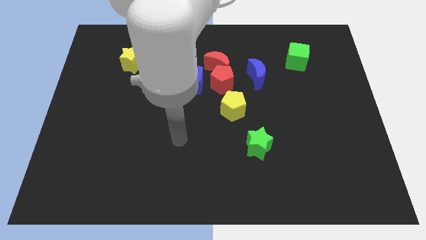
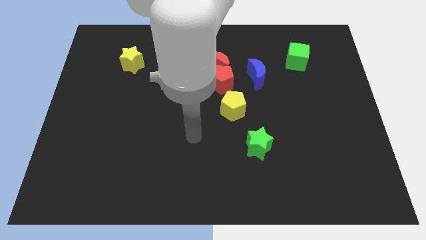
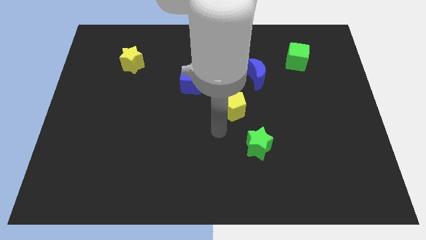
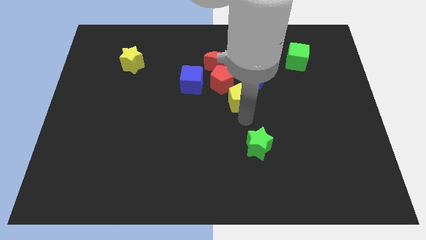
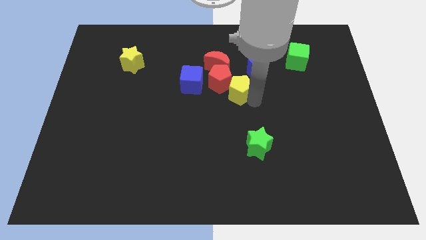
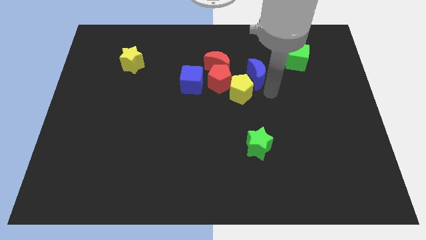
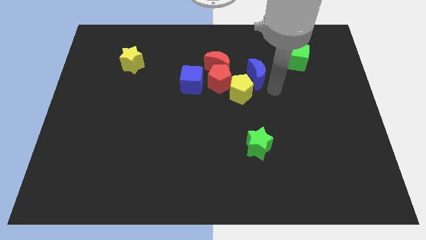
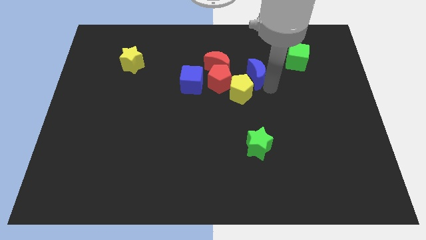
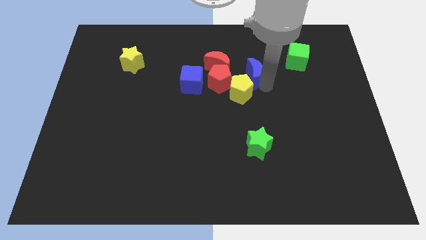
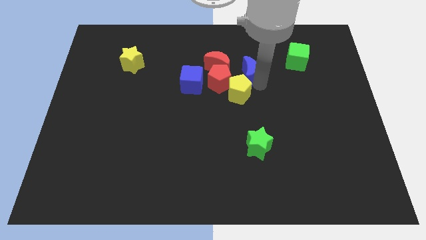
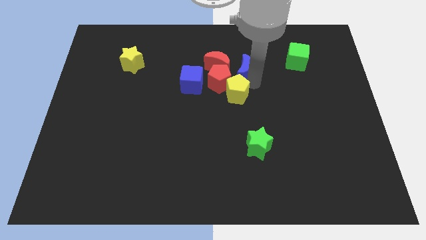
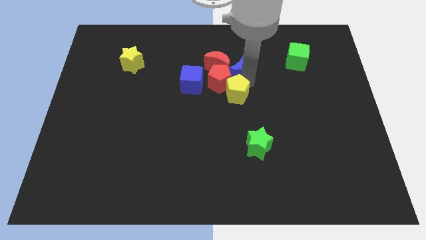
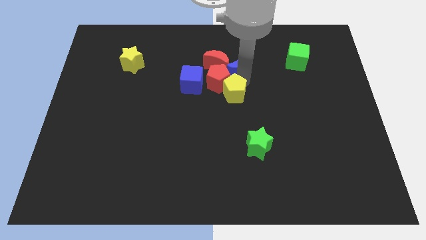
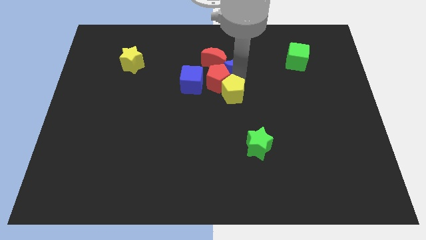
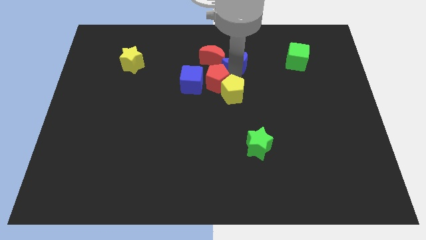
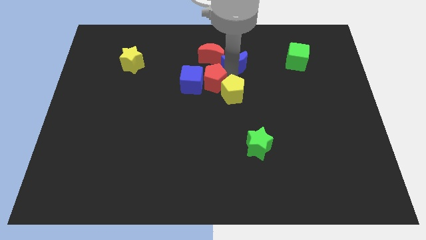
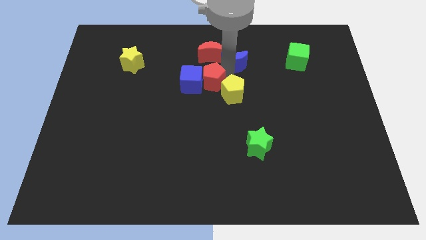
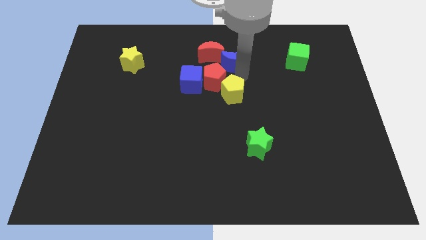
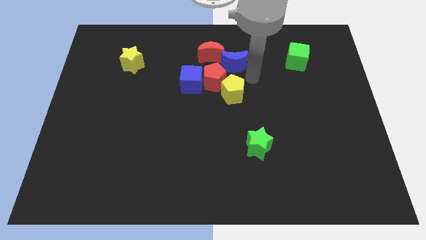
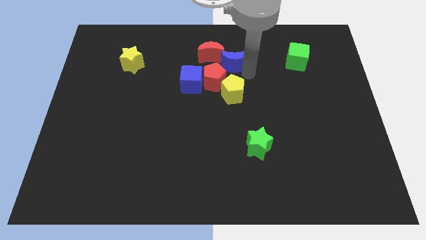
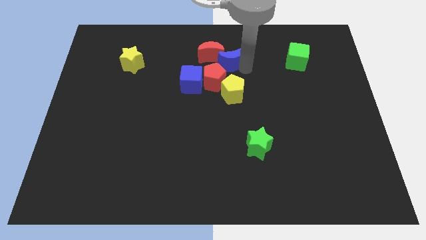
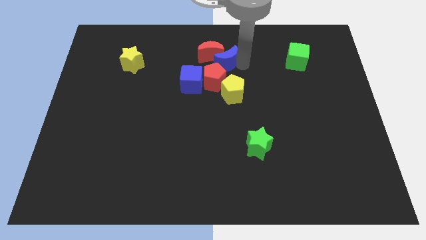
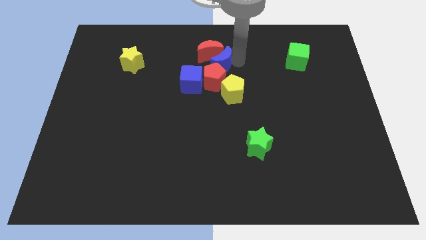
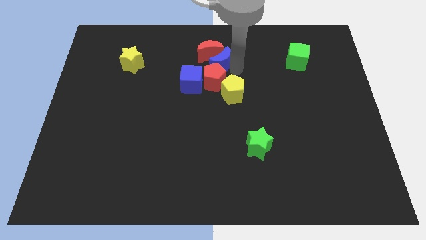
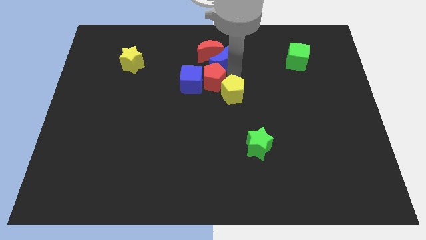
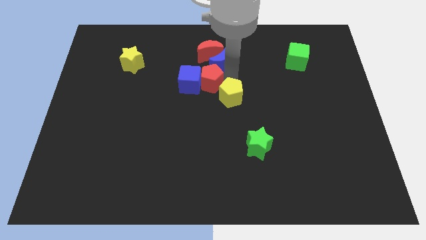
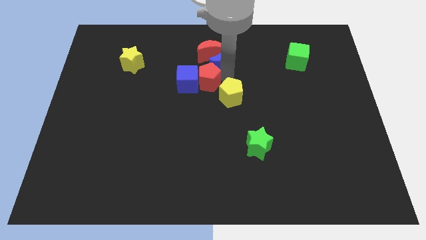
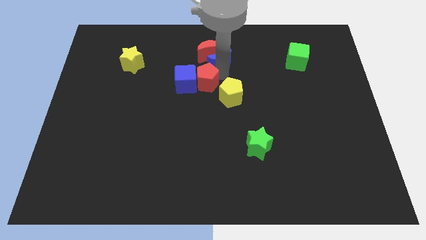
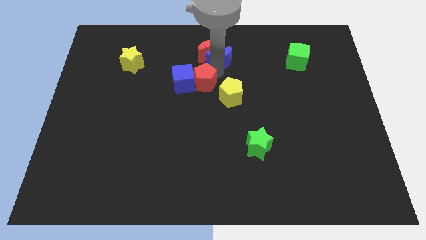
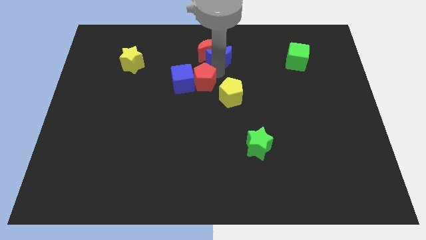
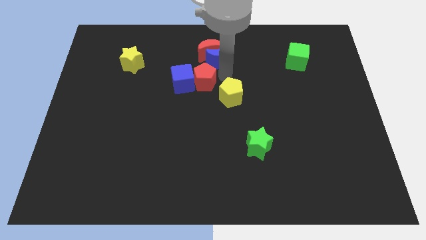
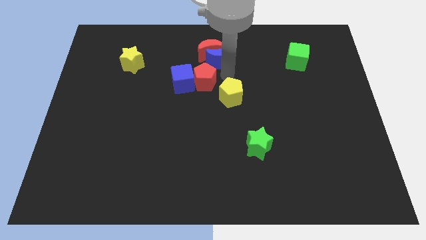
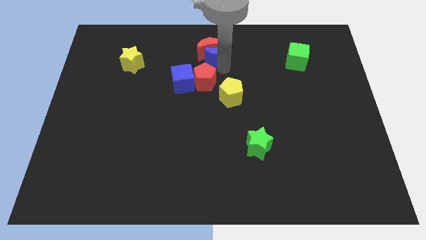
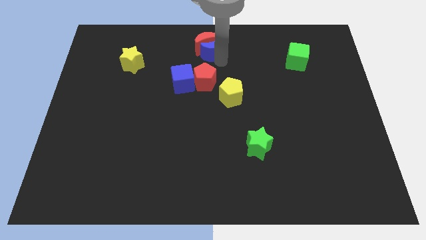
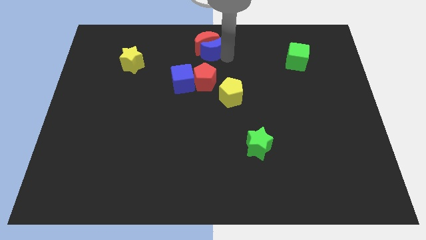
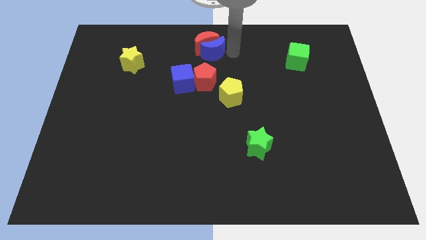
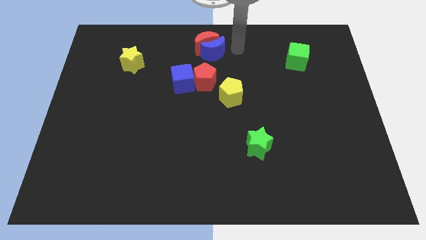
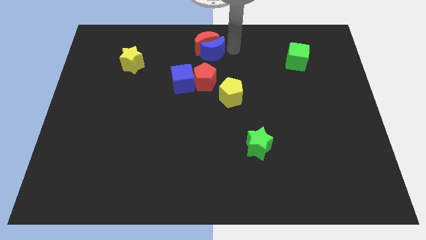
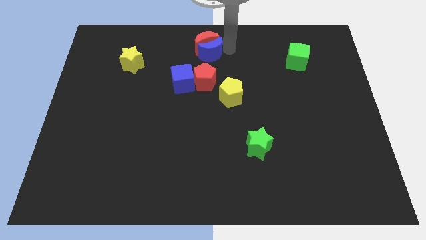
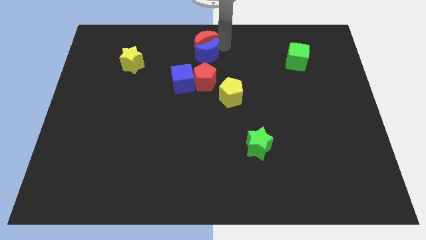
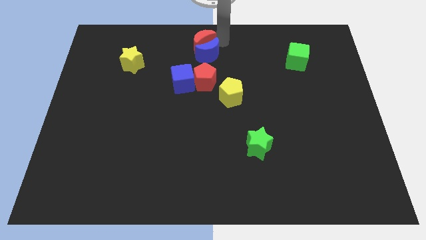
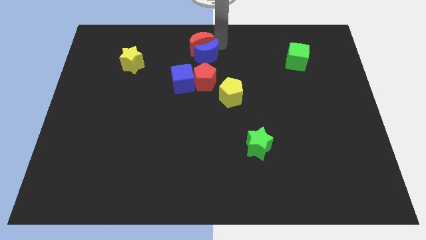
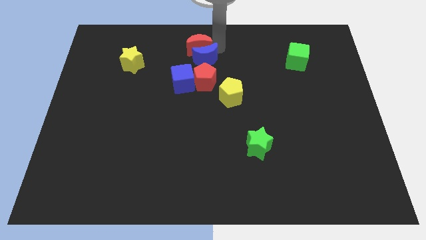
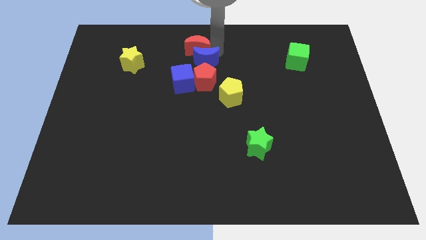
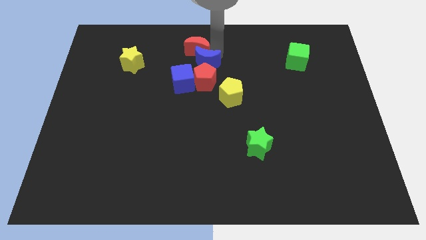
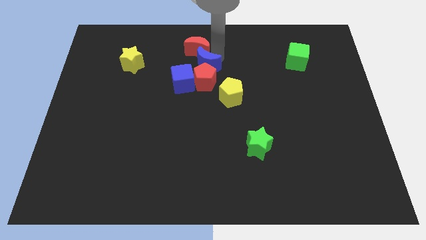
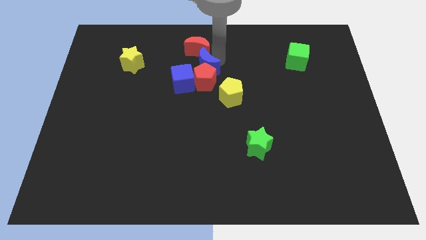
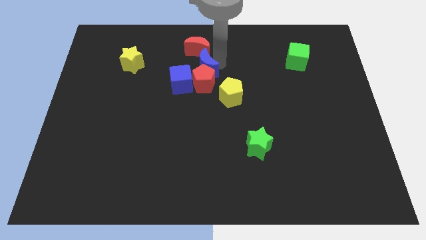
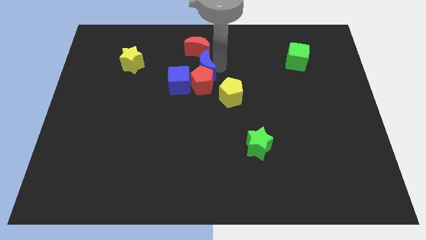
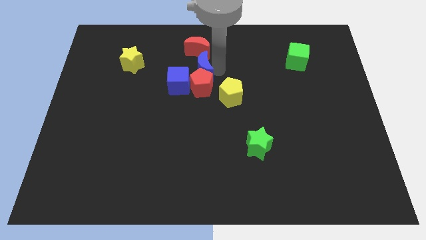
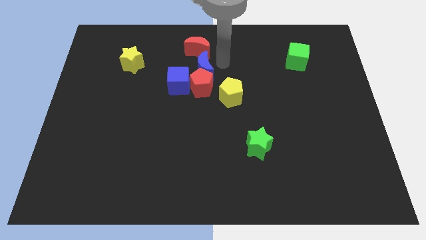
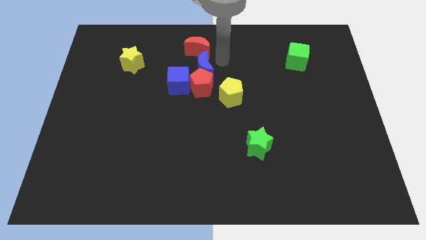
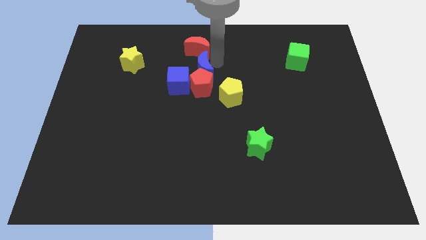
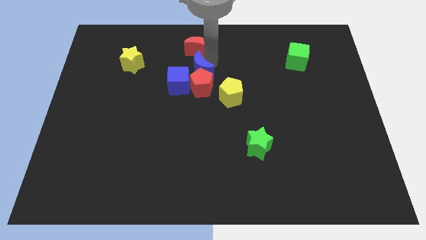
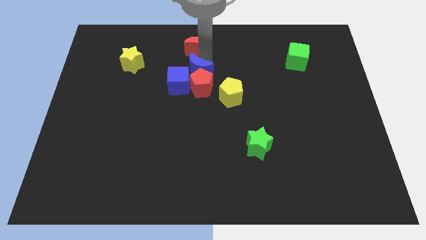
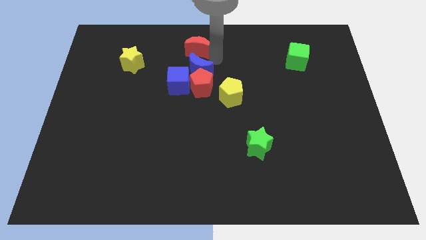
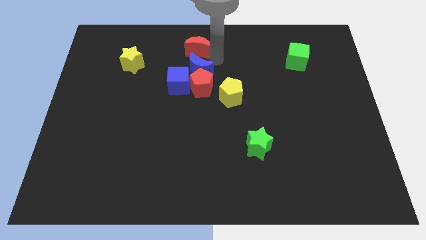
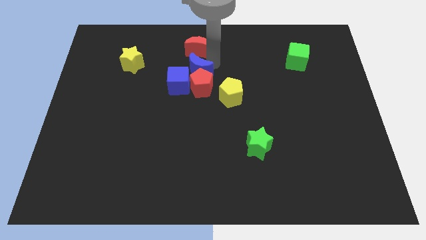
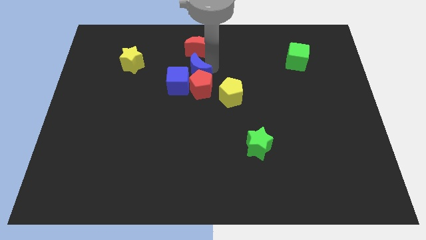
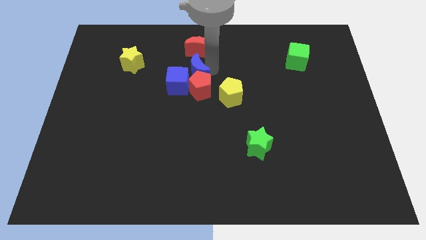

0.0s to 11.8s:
move the blue moon close to the blue cube
